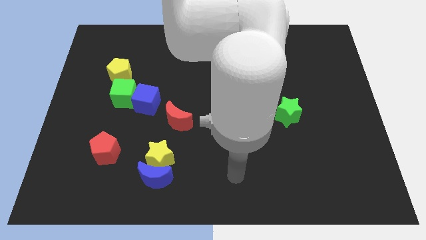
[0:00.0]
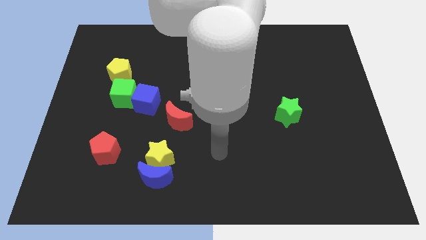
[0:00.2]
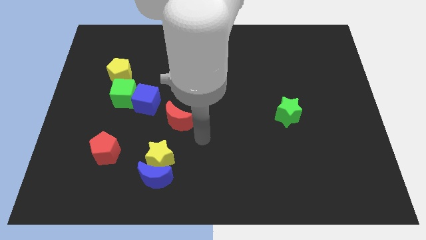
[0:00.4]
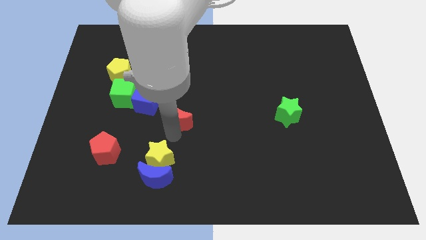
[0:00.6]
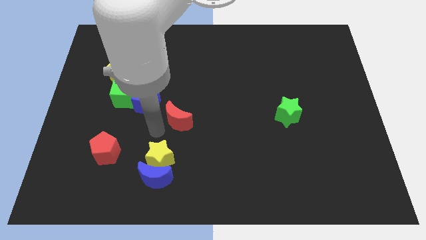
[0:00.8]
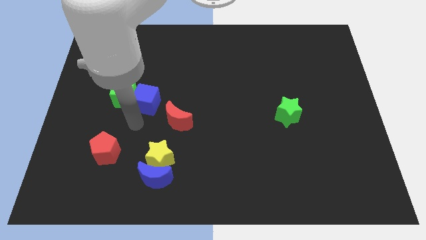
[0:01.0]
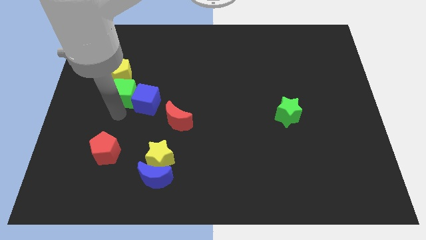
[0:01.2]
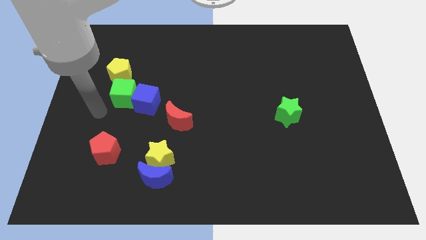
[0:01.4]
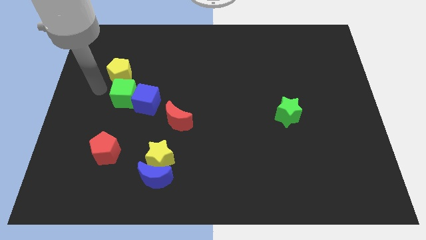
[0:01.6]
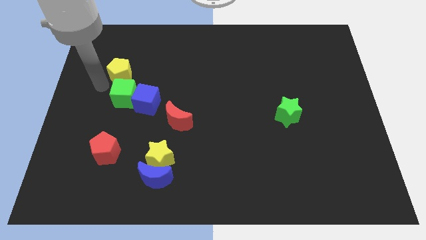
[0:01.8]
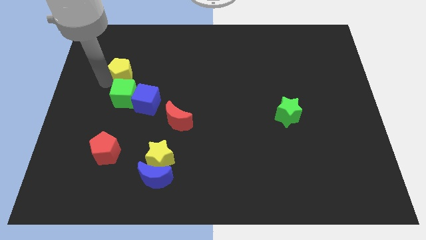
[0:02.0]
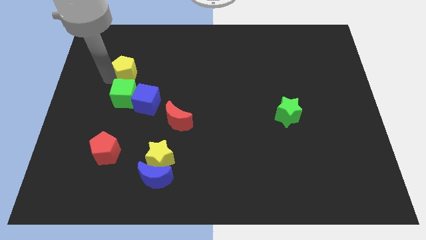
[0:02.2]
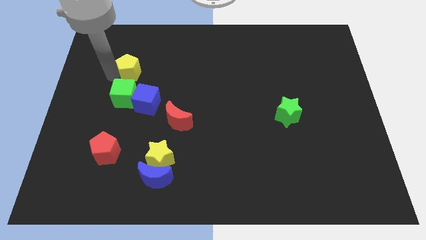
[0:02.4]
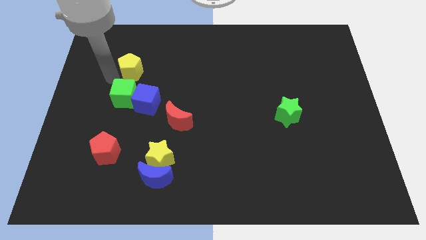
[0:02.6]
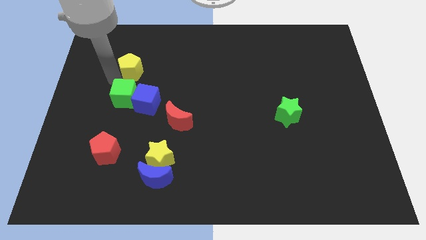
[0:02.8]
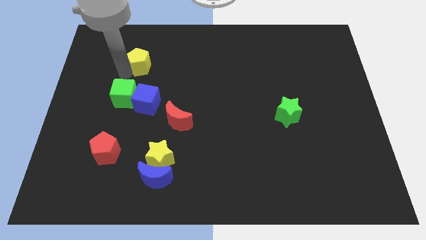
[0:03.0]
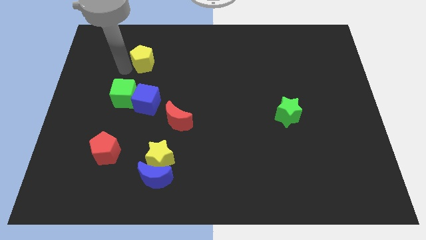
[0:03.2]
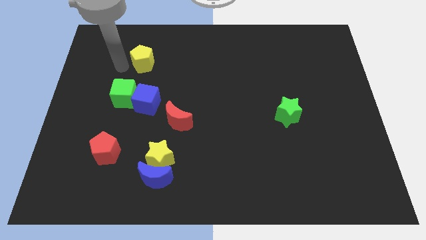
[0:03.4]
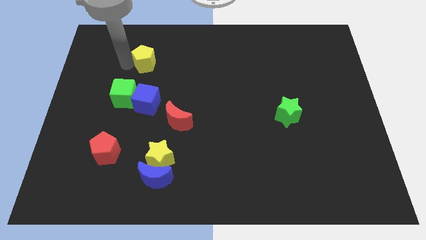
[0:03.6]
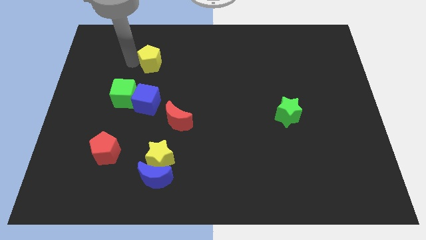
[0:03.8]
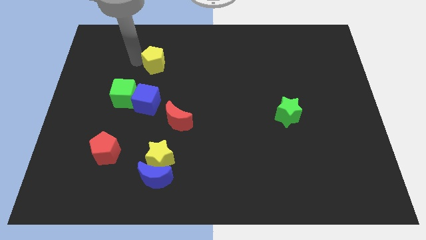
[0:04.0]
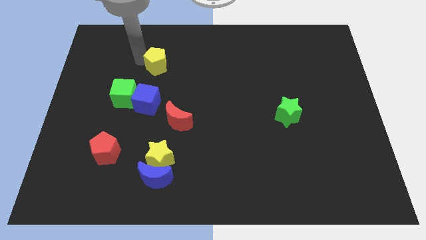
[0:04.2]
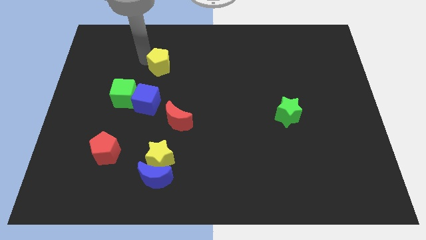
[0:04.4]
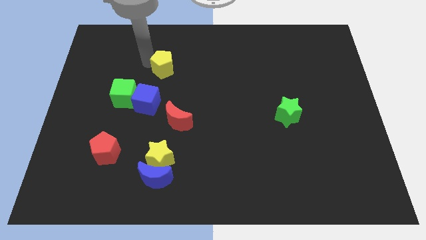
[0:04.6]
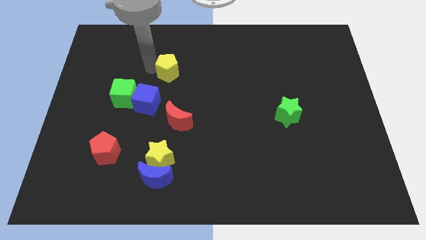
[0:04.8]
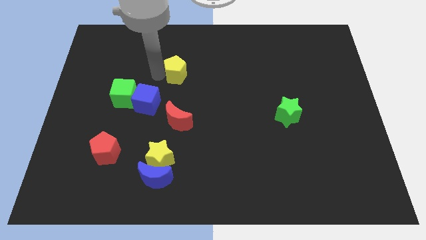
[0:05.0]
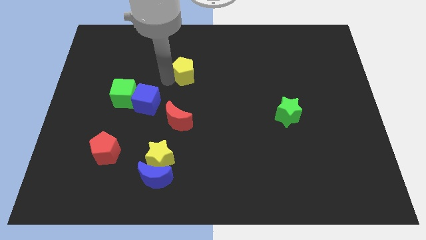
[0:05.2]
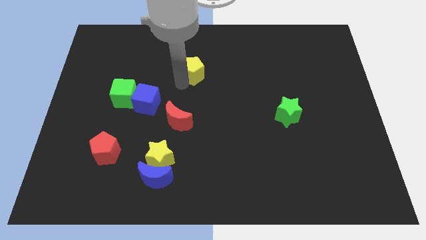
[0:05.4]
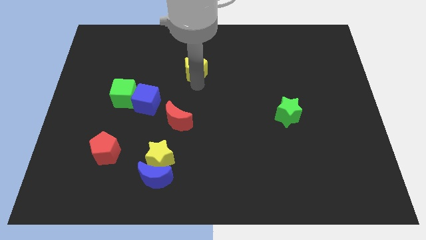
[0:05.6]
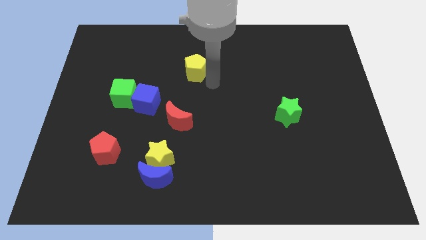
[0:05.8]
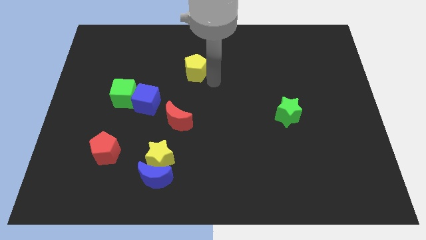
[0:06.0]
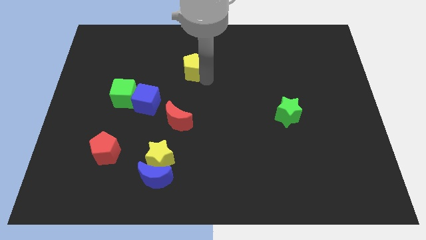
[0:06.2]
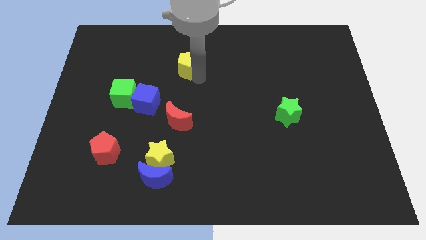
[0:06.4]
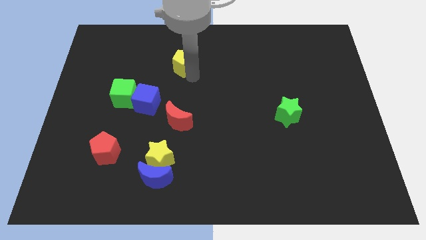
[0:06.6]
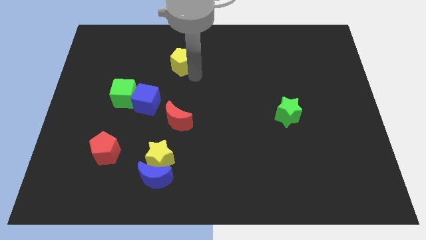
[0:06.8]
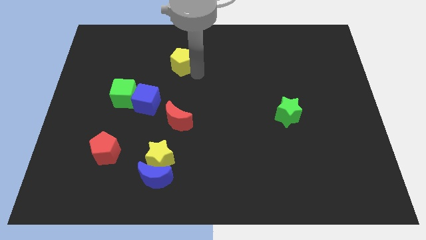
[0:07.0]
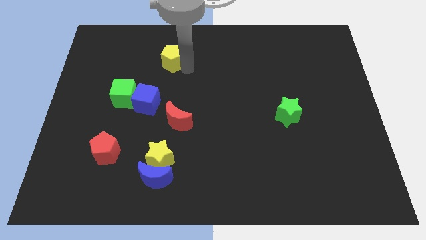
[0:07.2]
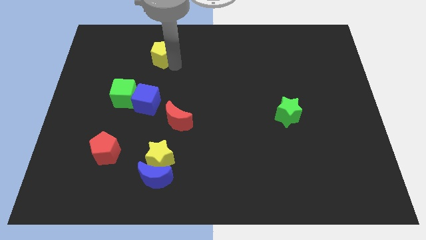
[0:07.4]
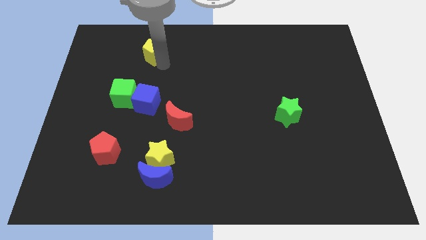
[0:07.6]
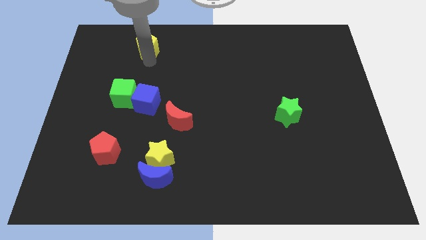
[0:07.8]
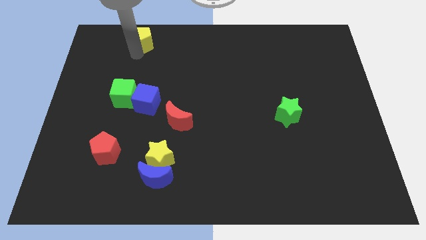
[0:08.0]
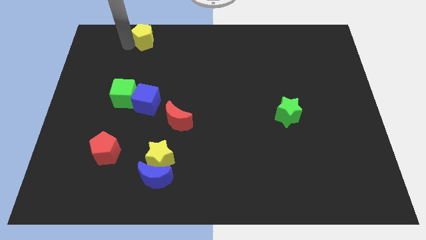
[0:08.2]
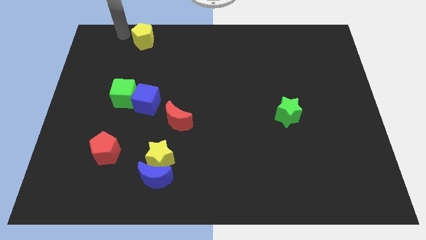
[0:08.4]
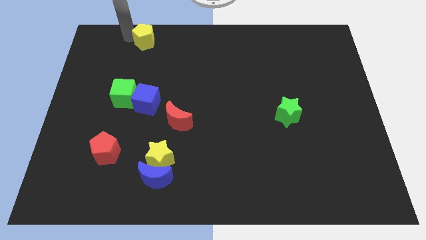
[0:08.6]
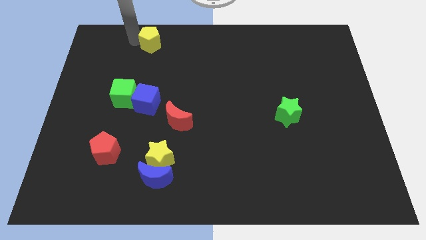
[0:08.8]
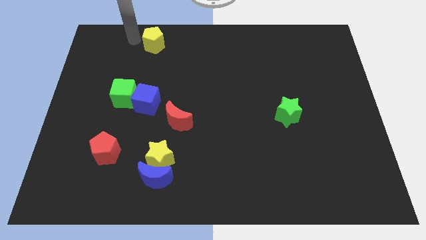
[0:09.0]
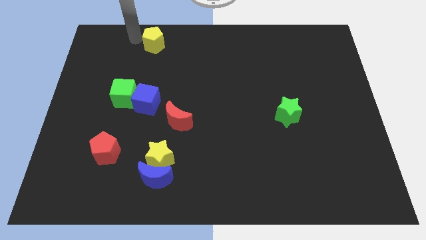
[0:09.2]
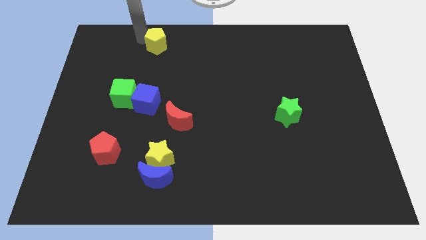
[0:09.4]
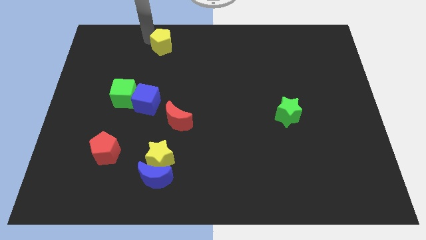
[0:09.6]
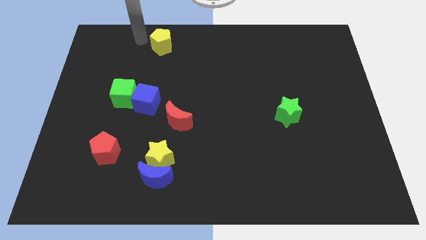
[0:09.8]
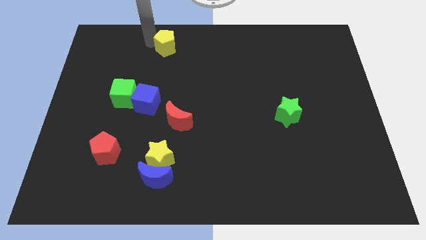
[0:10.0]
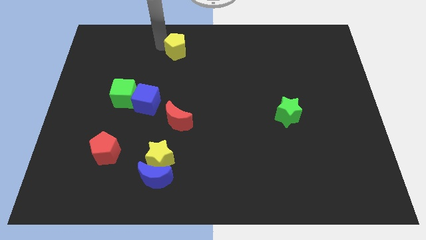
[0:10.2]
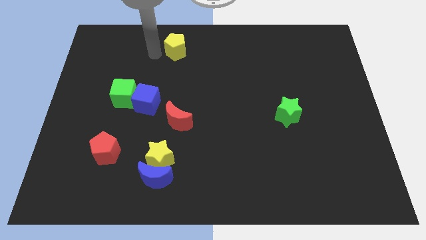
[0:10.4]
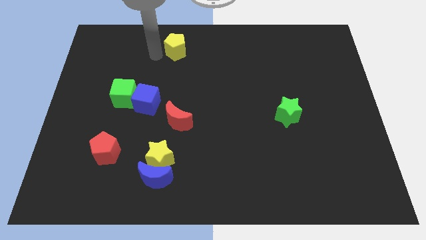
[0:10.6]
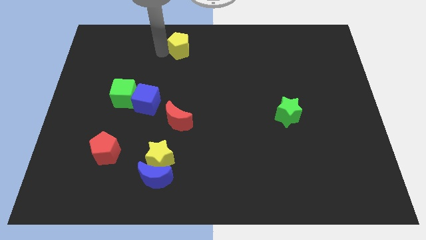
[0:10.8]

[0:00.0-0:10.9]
push the yellow pentagon to the towards your base

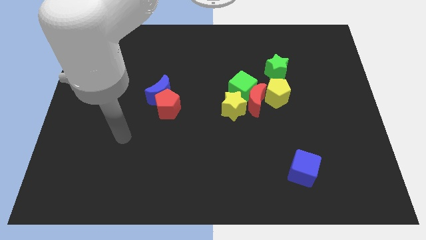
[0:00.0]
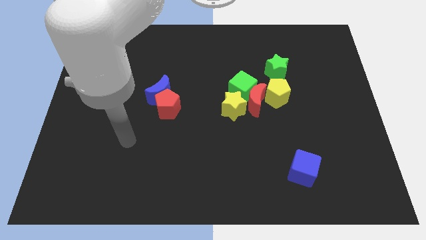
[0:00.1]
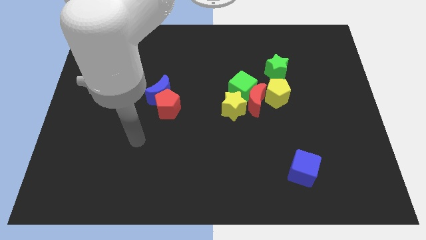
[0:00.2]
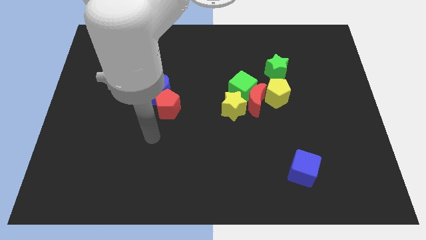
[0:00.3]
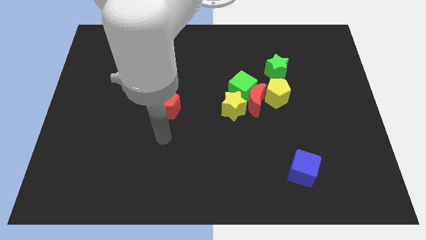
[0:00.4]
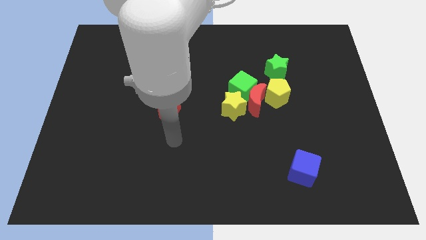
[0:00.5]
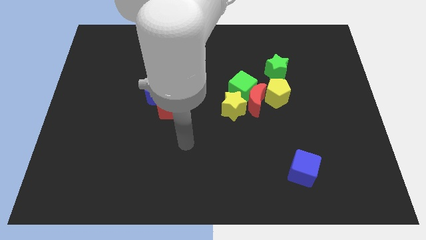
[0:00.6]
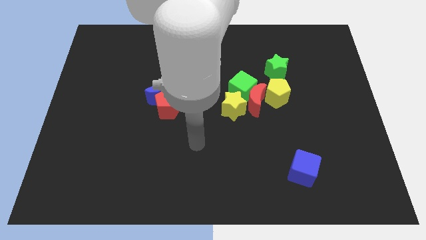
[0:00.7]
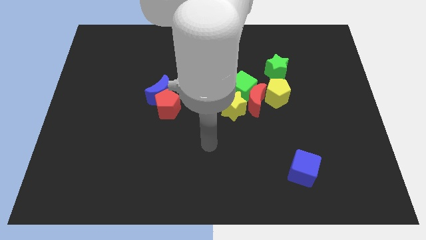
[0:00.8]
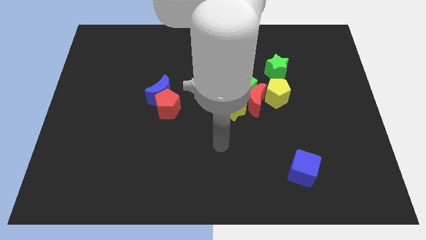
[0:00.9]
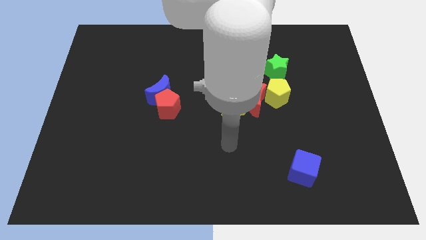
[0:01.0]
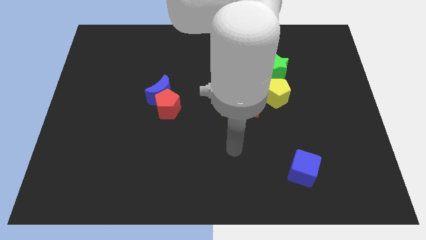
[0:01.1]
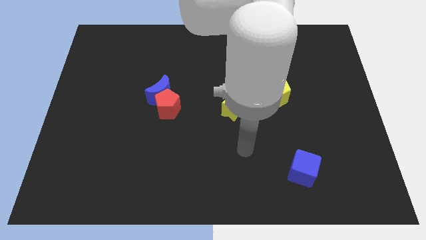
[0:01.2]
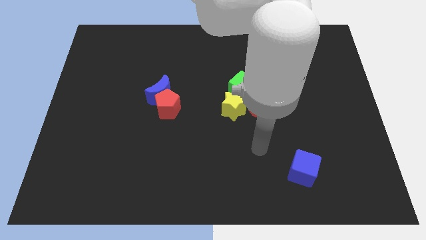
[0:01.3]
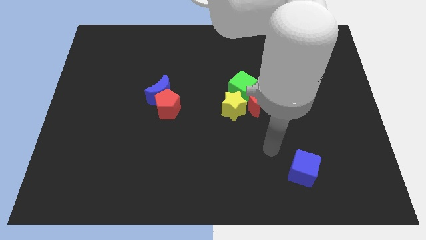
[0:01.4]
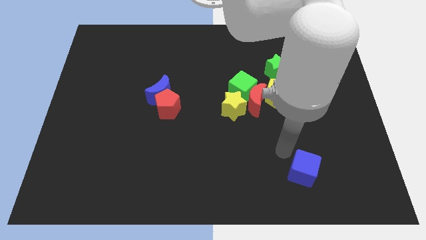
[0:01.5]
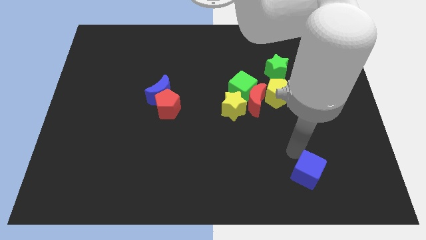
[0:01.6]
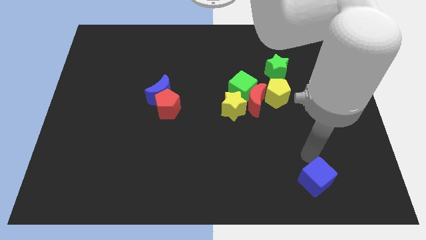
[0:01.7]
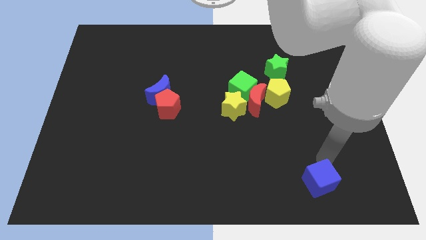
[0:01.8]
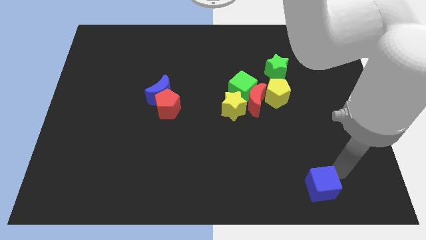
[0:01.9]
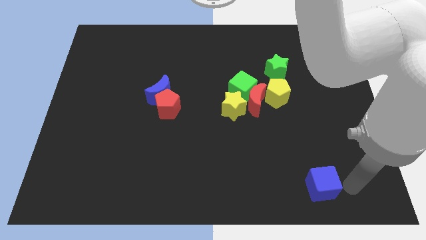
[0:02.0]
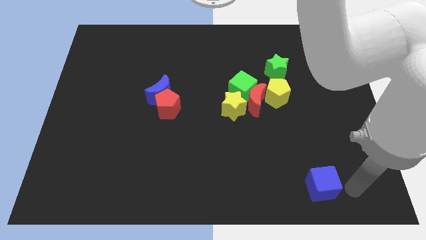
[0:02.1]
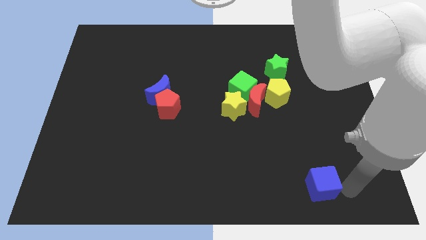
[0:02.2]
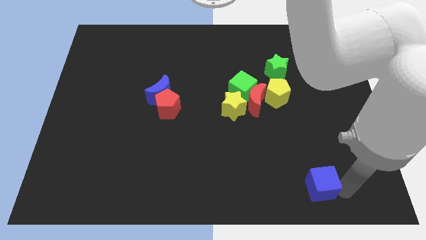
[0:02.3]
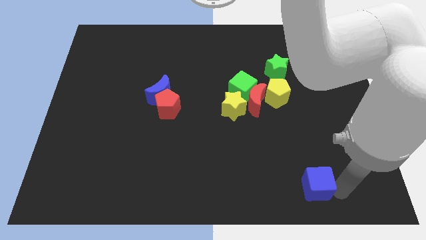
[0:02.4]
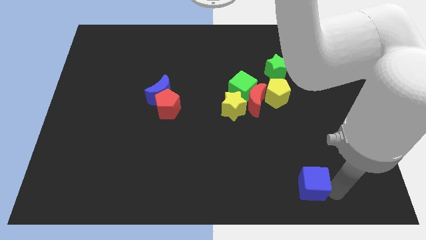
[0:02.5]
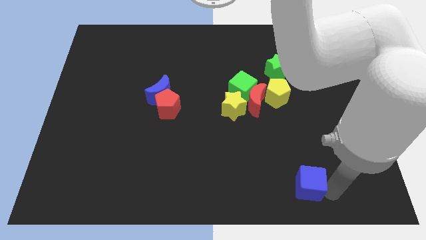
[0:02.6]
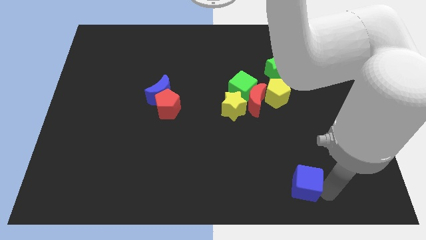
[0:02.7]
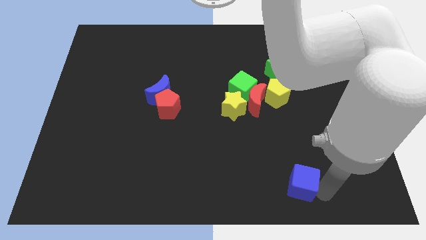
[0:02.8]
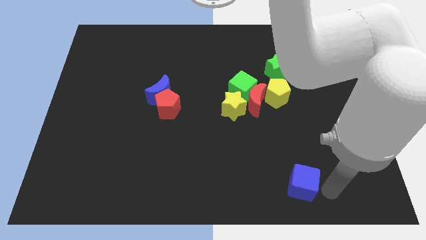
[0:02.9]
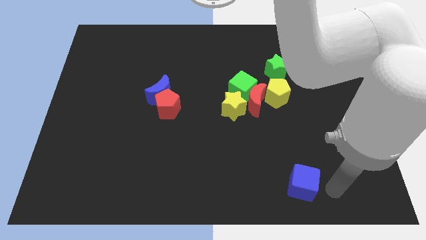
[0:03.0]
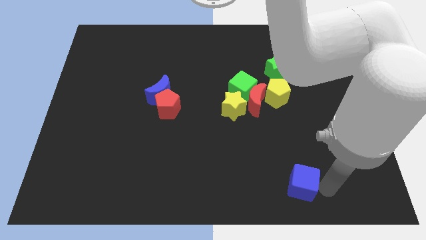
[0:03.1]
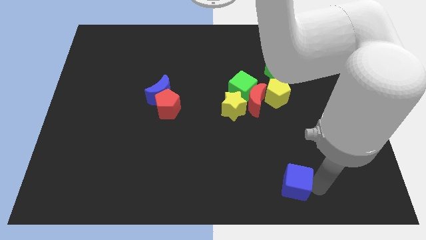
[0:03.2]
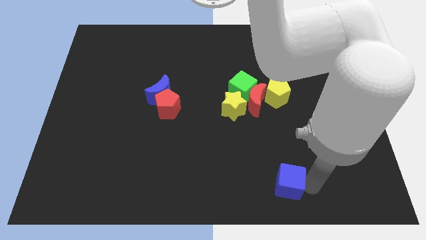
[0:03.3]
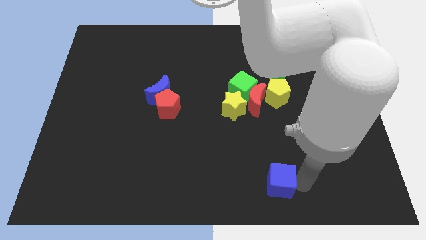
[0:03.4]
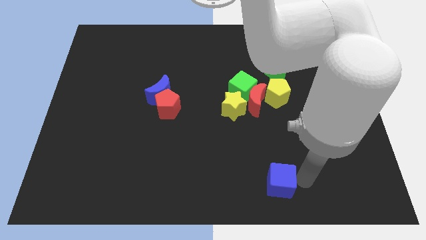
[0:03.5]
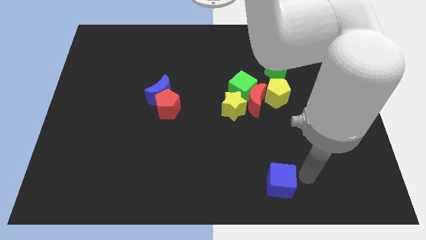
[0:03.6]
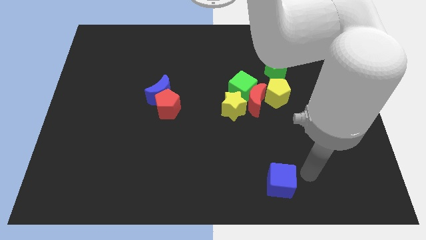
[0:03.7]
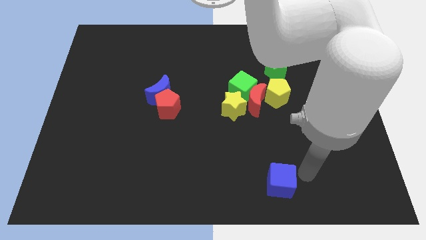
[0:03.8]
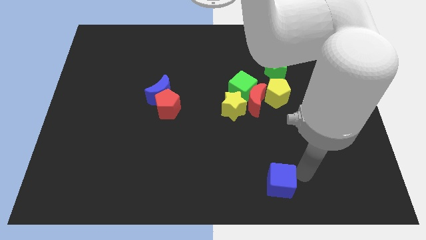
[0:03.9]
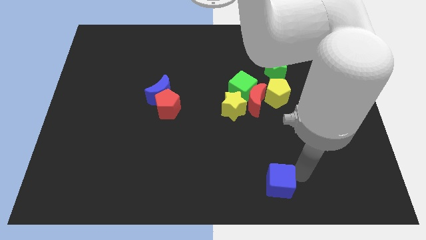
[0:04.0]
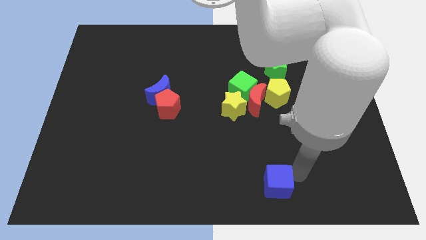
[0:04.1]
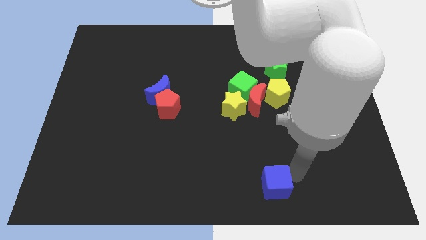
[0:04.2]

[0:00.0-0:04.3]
put the blue cube to the bottom side
